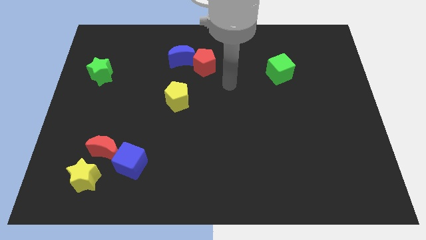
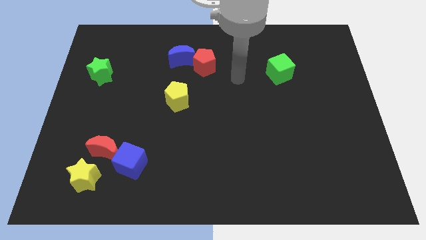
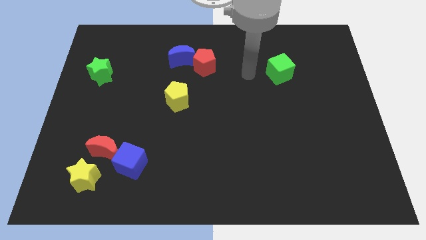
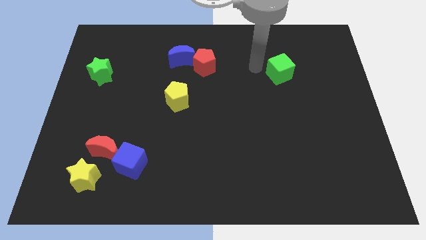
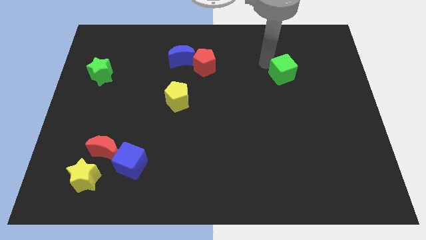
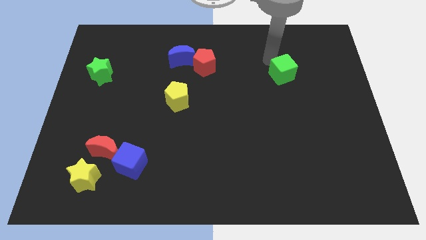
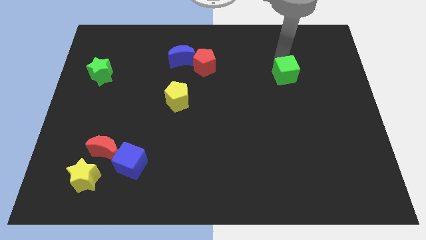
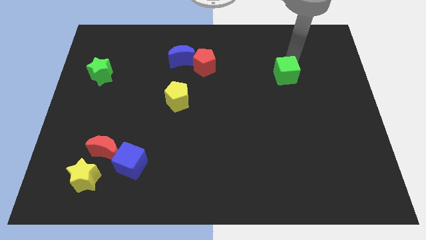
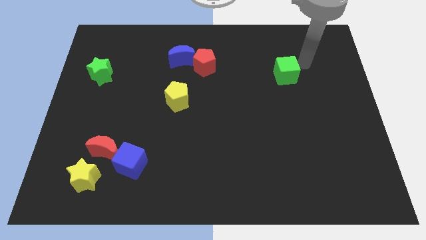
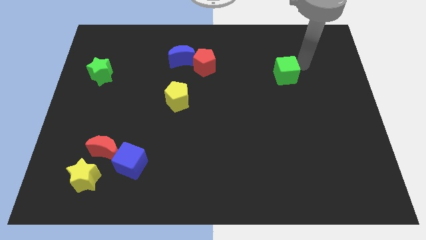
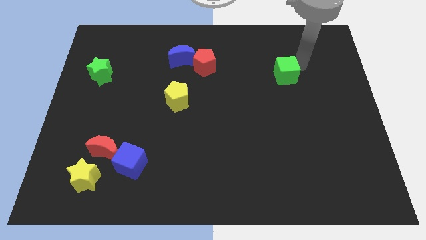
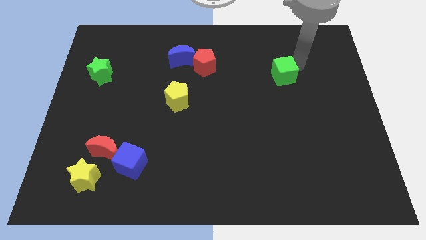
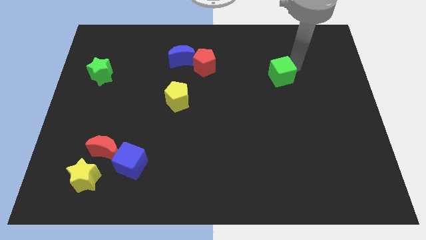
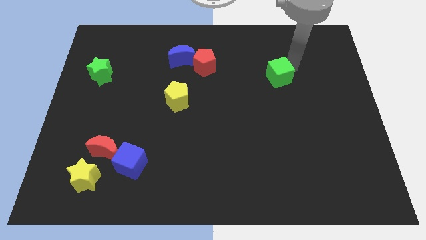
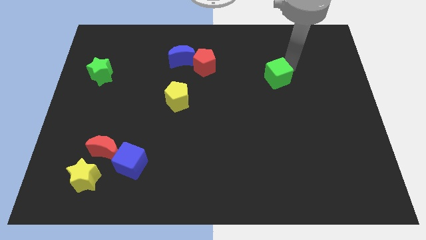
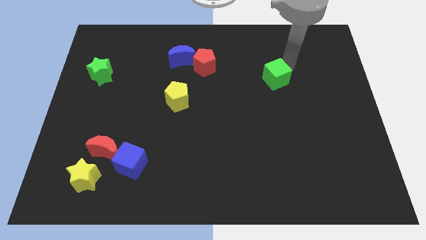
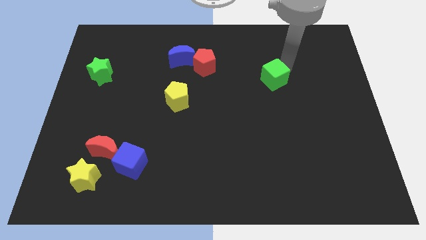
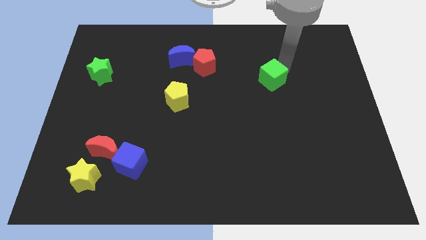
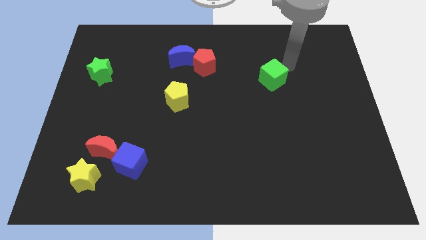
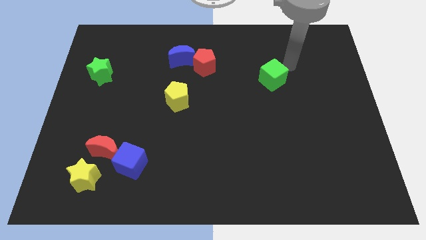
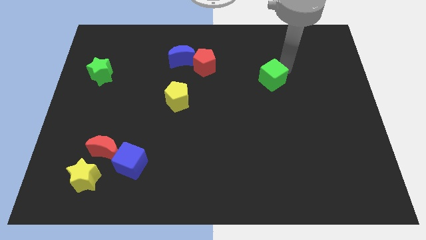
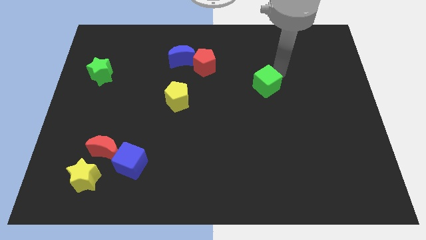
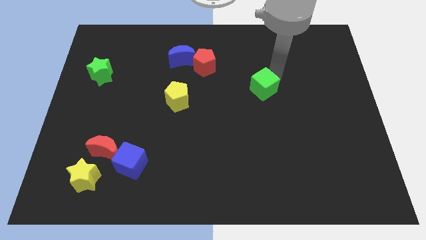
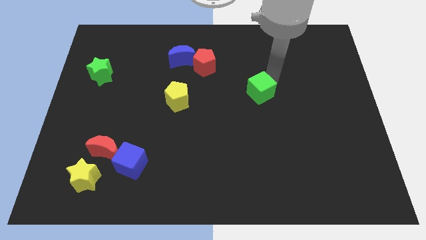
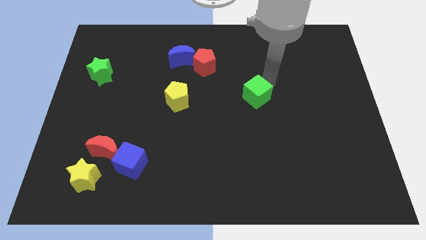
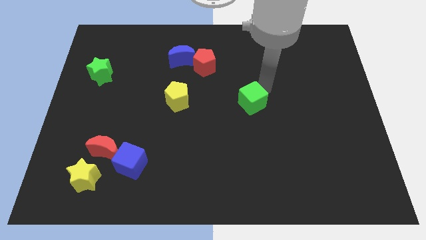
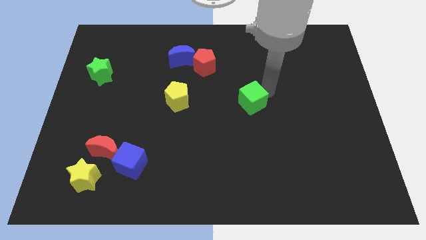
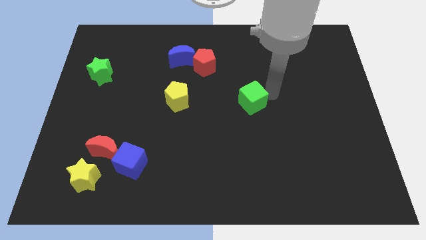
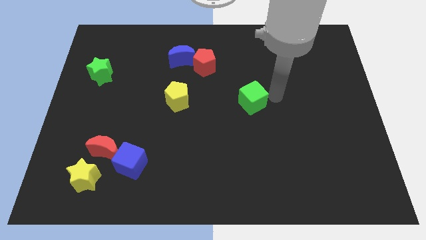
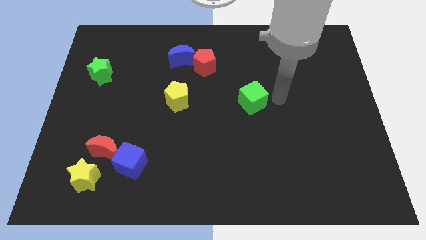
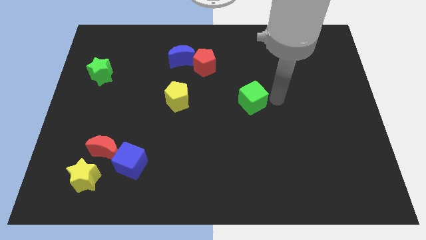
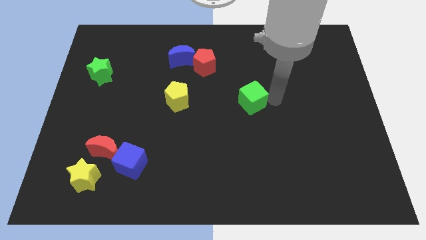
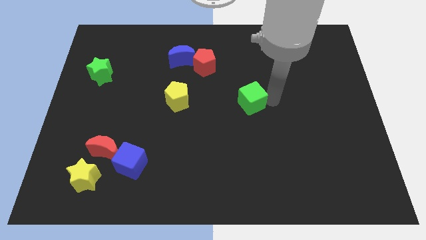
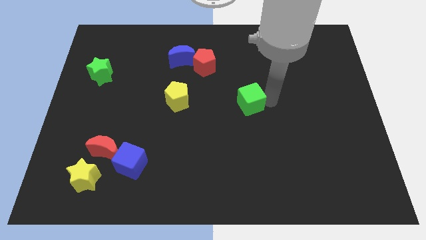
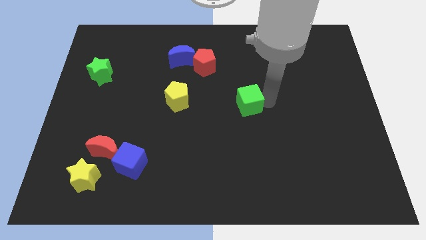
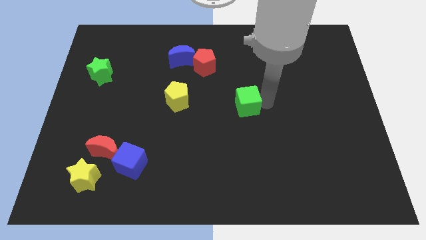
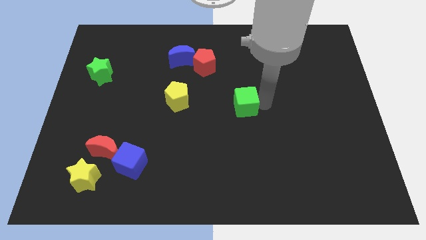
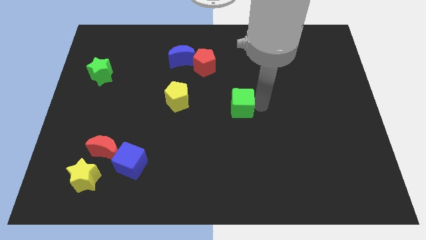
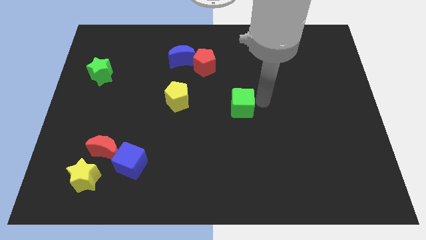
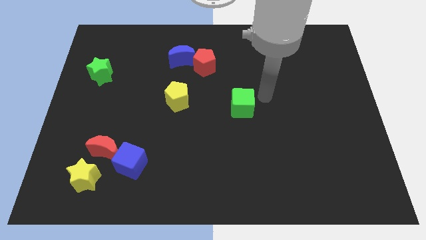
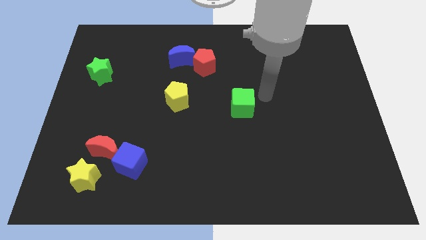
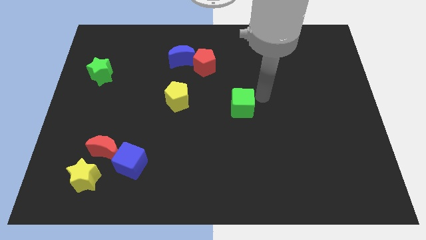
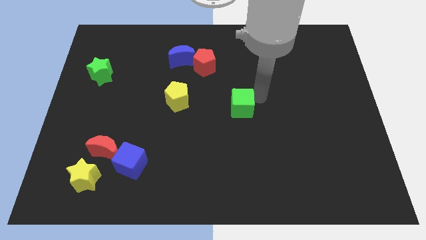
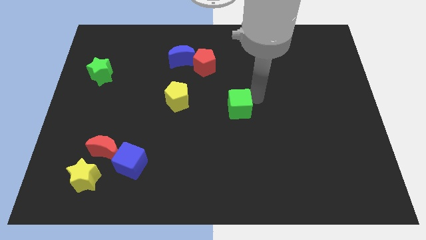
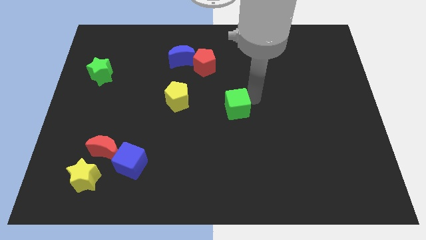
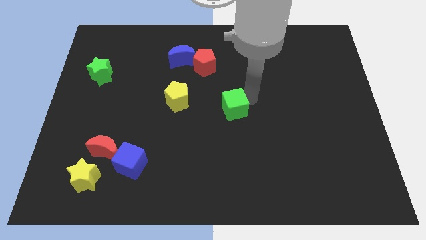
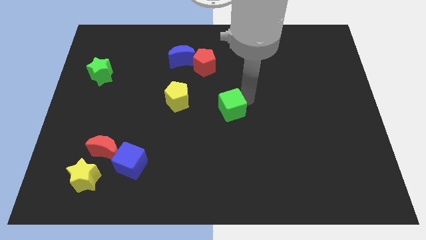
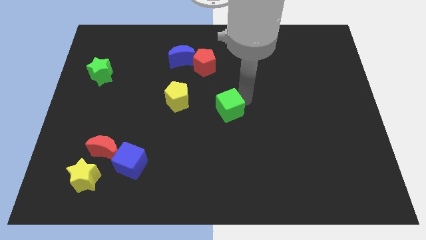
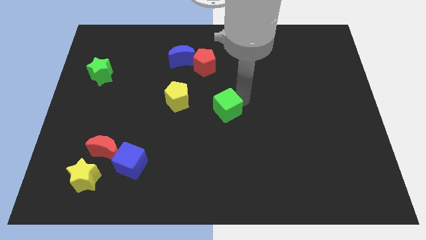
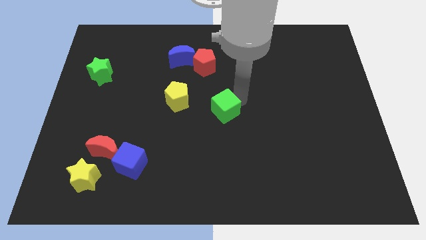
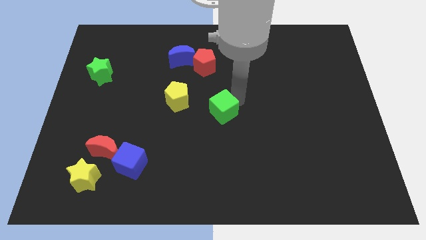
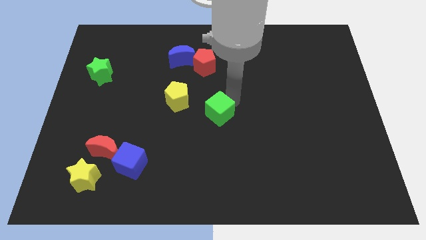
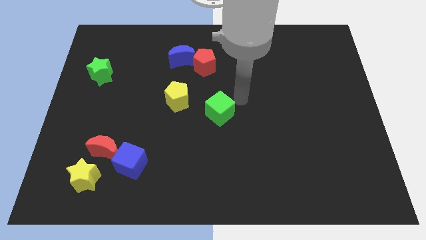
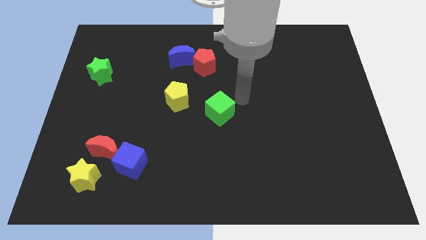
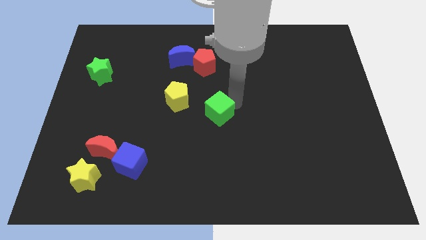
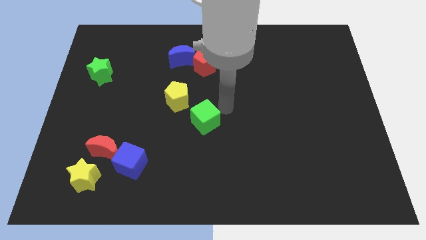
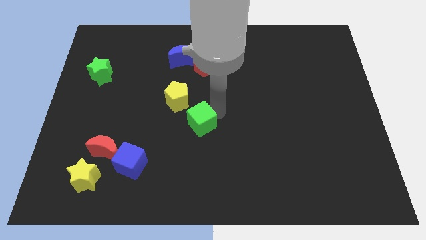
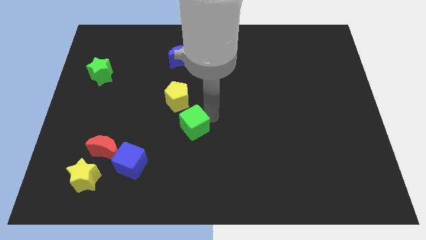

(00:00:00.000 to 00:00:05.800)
slide the green cube below the yellow pentagon

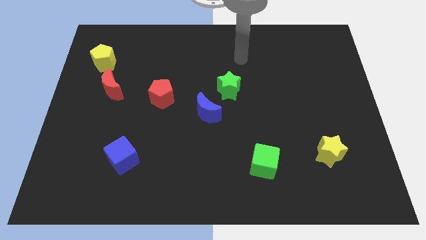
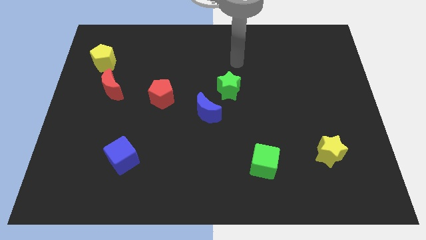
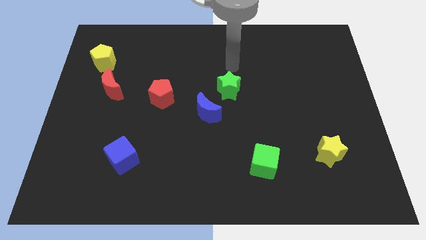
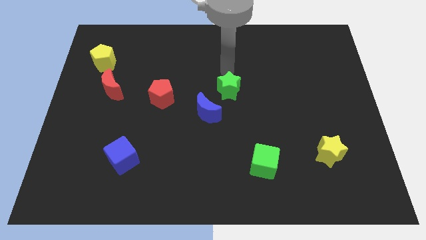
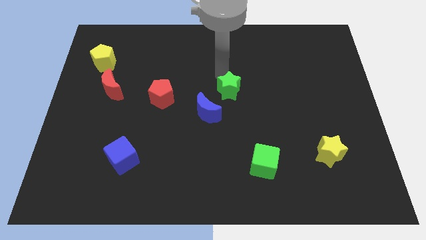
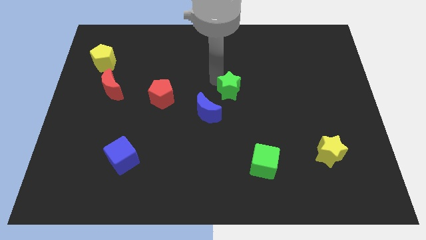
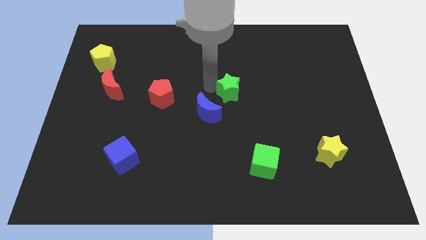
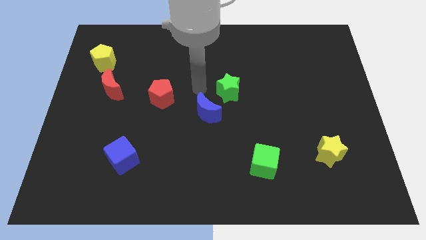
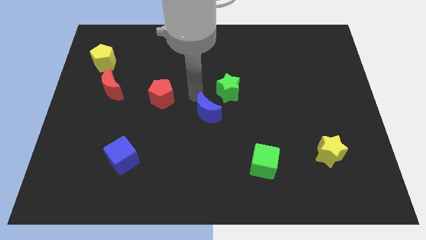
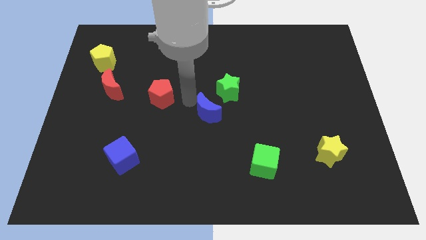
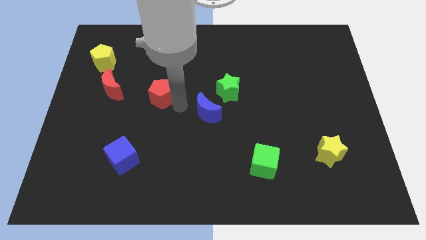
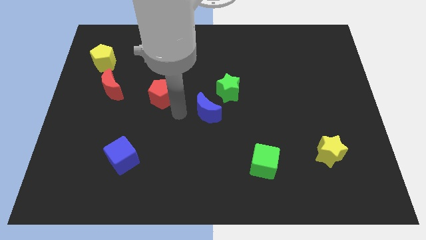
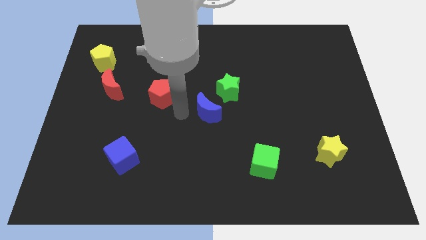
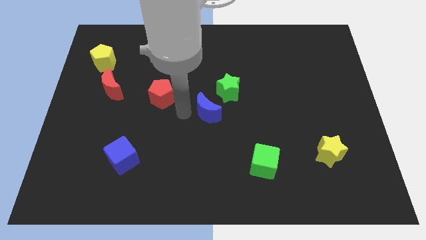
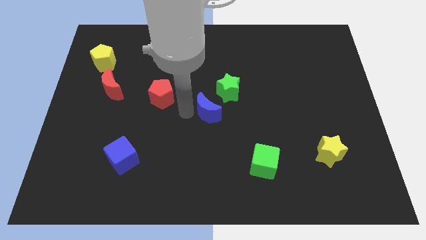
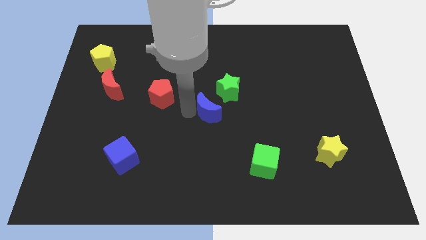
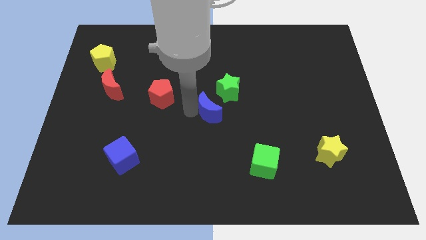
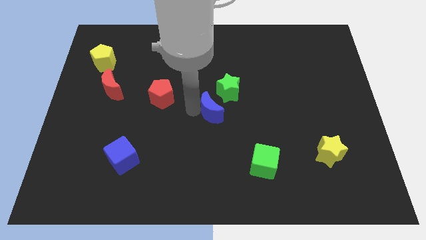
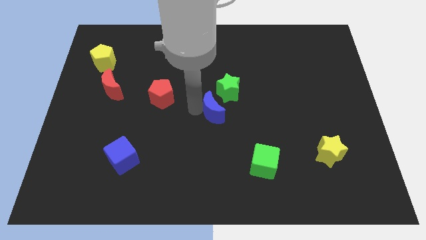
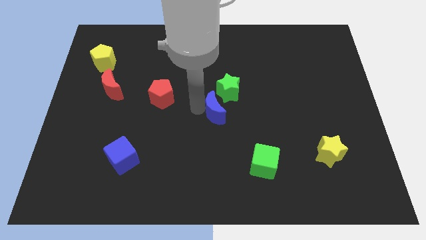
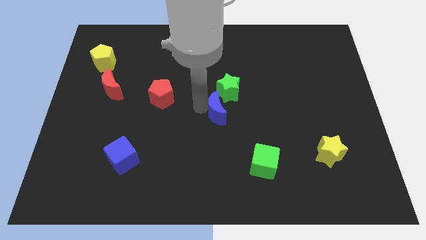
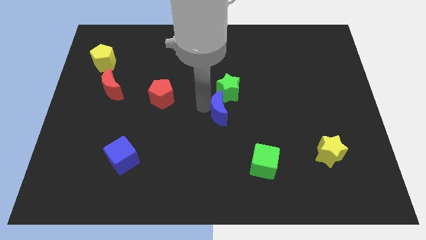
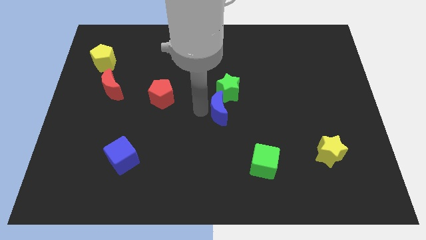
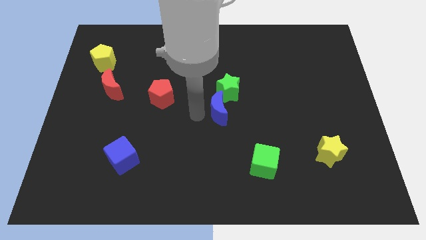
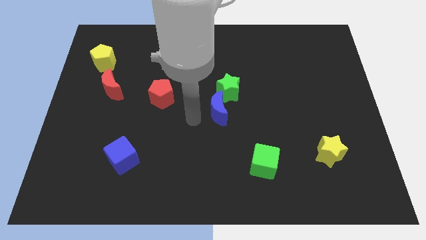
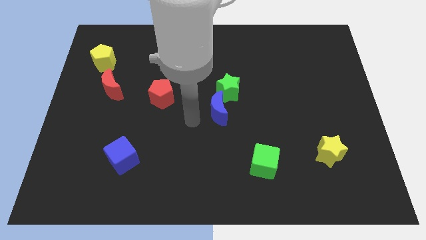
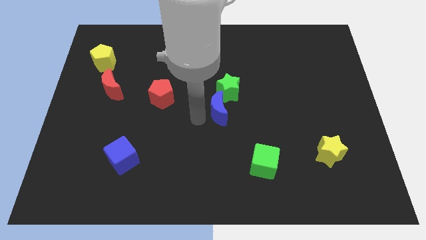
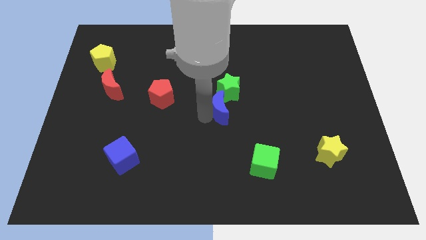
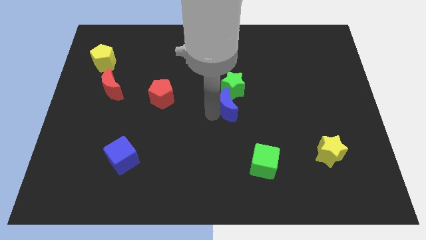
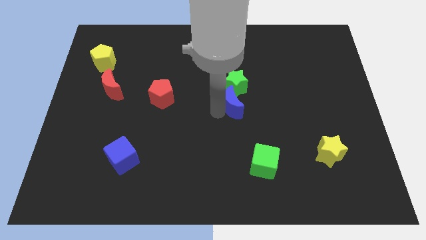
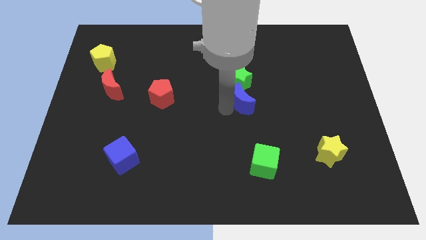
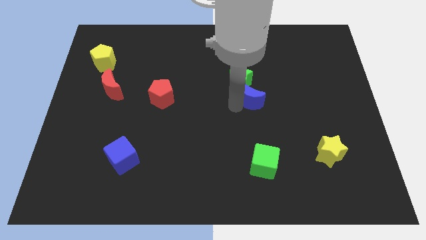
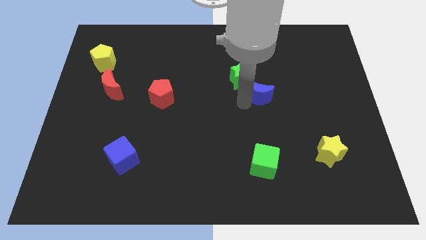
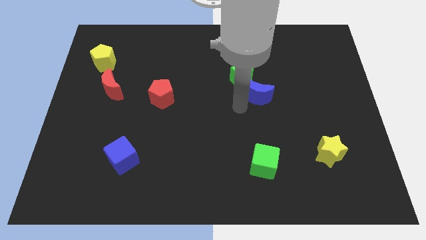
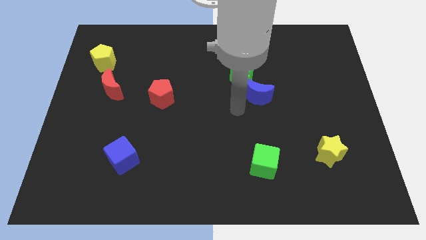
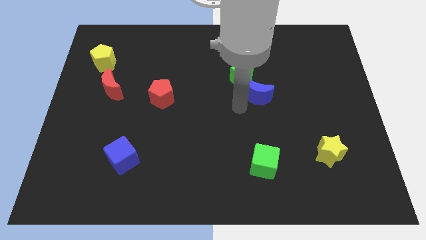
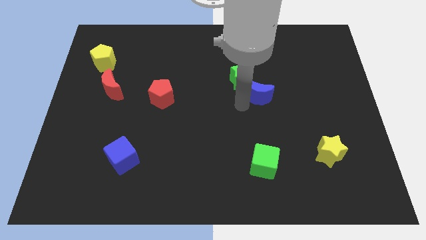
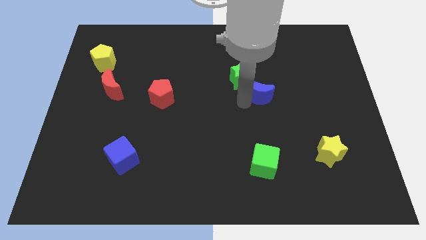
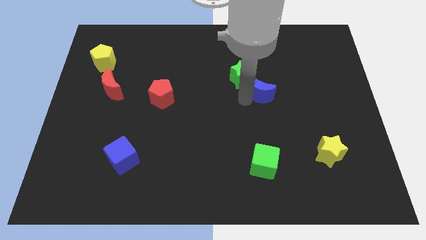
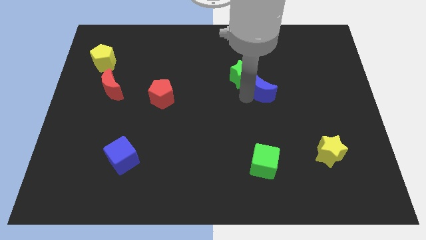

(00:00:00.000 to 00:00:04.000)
put the blue moon to the right side of the green star
